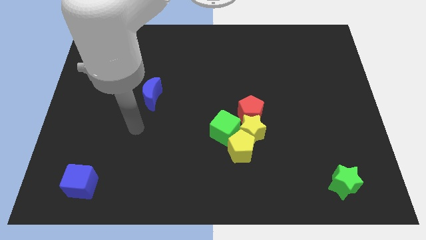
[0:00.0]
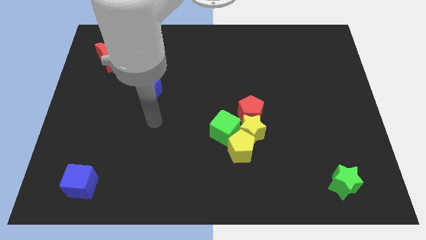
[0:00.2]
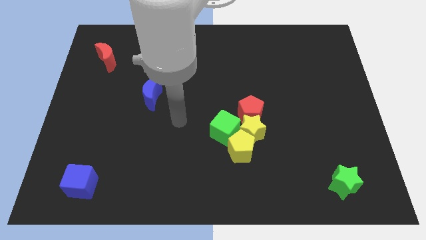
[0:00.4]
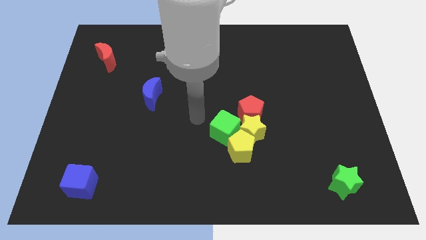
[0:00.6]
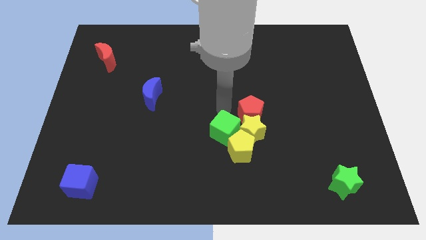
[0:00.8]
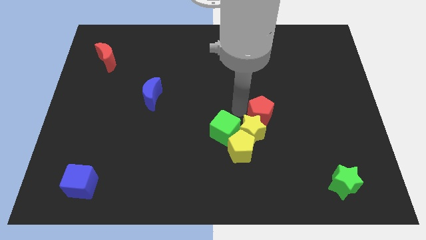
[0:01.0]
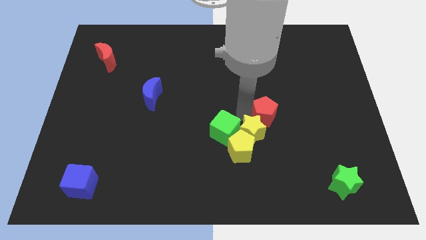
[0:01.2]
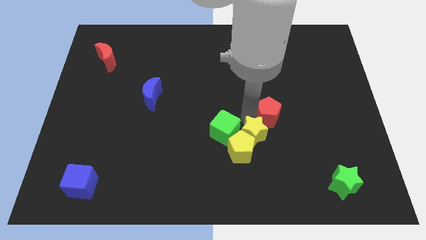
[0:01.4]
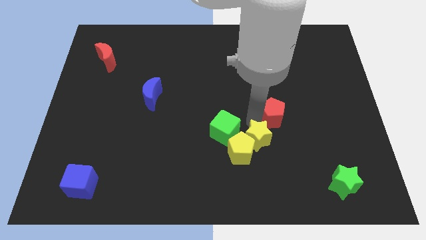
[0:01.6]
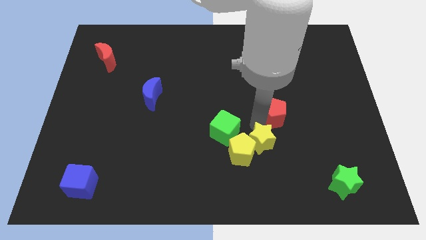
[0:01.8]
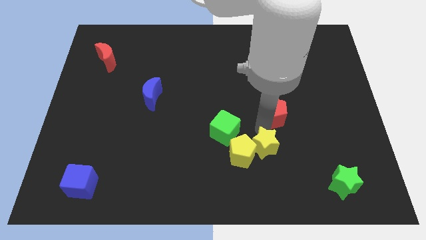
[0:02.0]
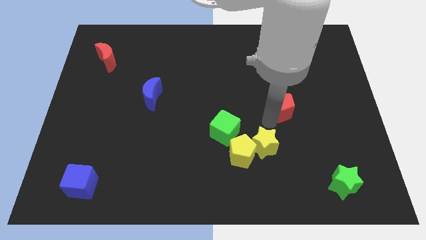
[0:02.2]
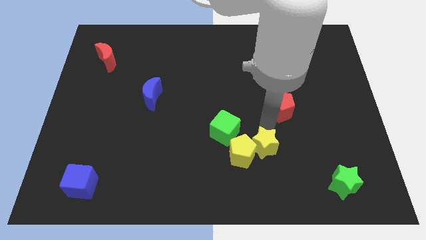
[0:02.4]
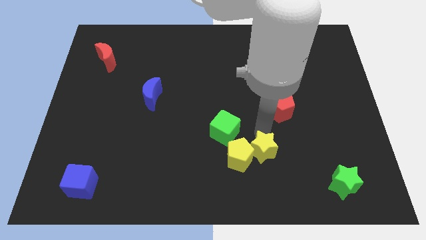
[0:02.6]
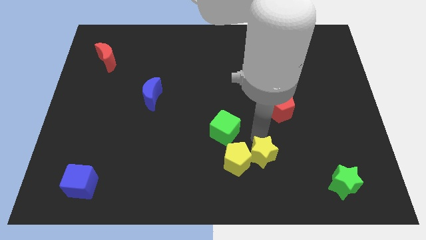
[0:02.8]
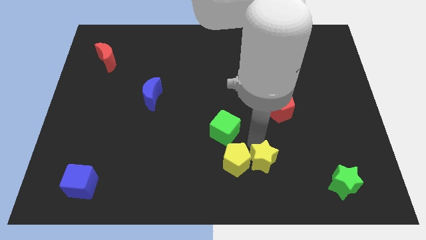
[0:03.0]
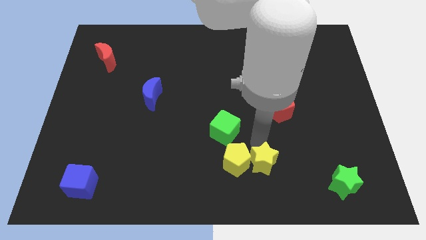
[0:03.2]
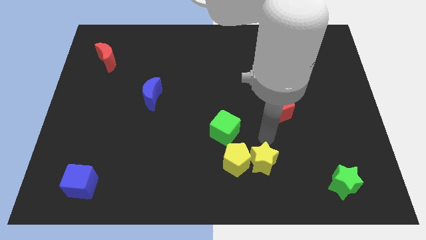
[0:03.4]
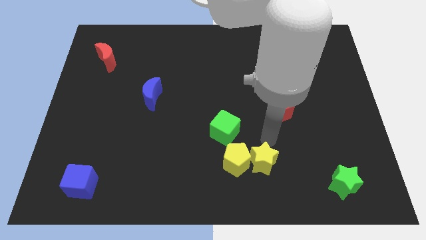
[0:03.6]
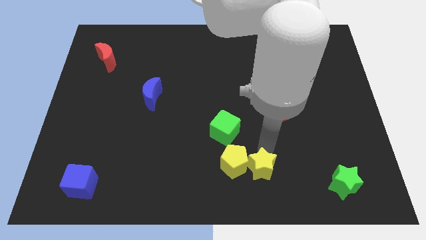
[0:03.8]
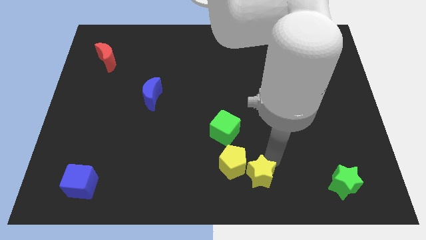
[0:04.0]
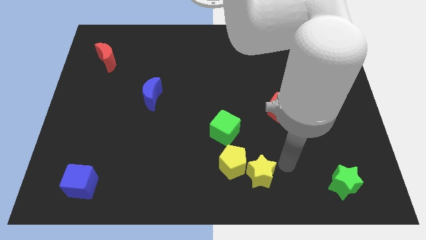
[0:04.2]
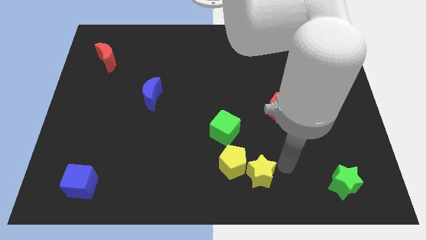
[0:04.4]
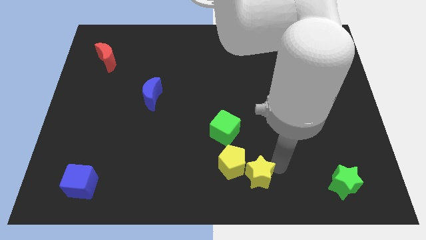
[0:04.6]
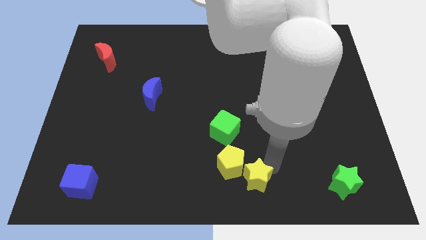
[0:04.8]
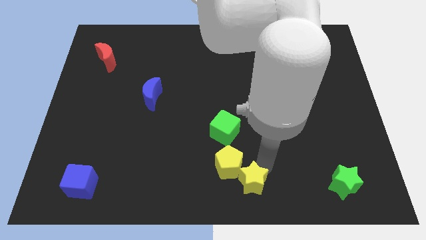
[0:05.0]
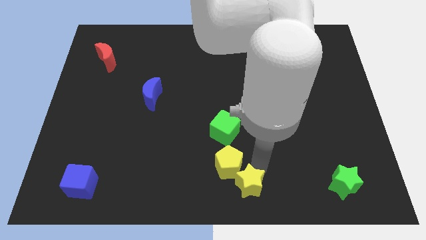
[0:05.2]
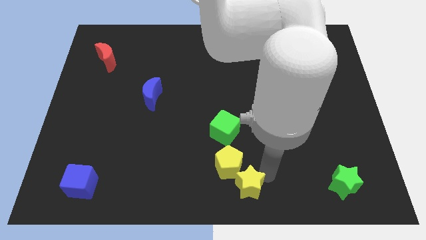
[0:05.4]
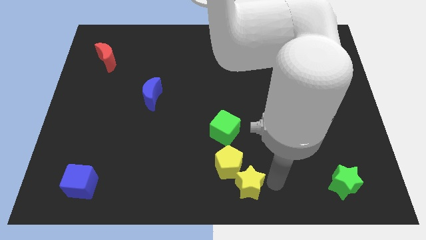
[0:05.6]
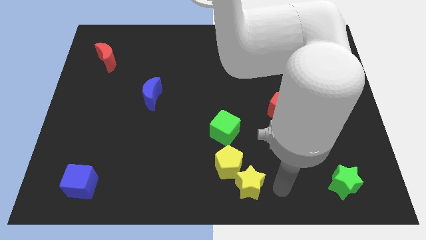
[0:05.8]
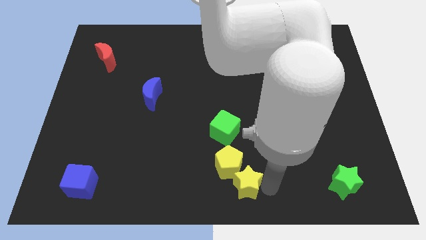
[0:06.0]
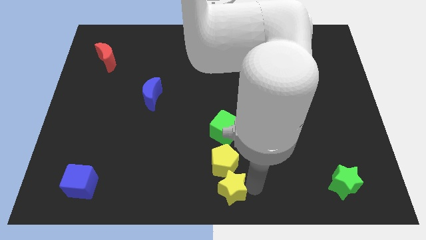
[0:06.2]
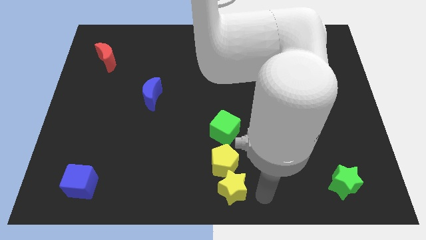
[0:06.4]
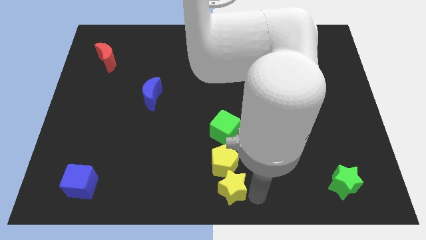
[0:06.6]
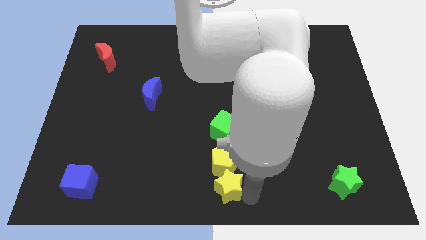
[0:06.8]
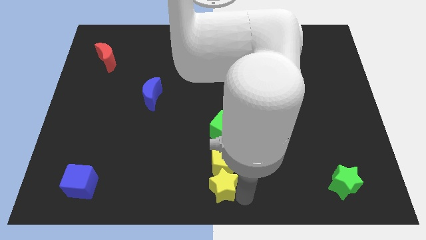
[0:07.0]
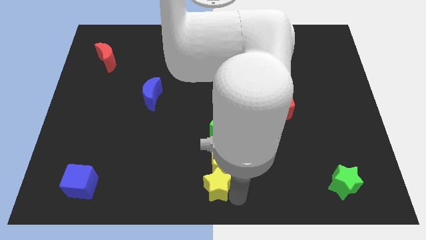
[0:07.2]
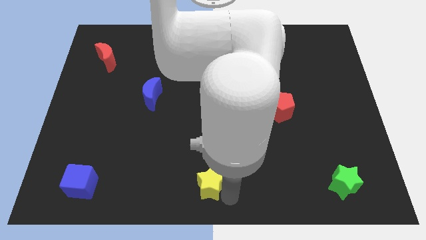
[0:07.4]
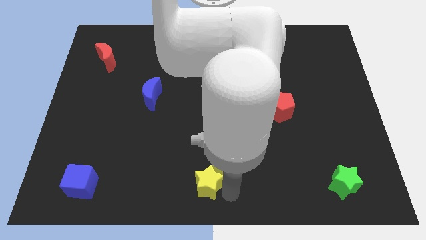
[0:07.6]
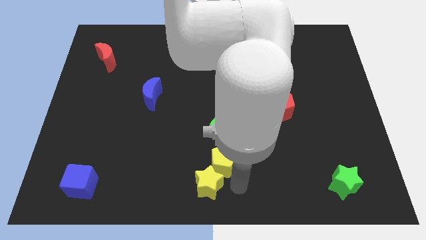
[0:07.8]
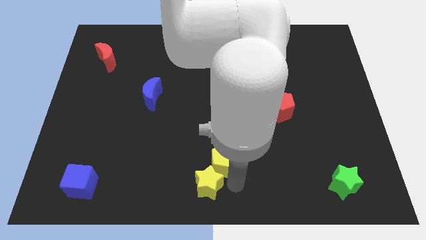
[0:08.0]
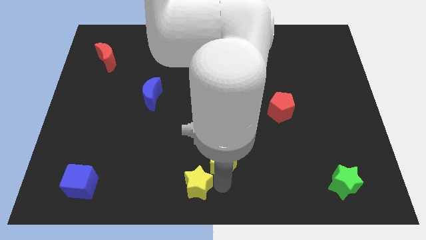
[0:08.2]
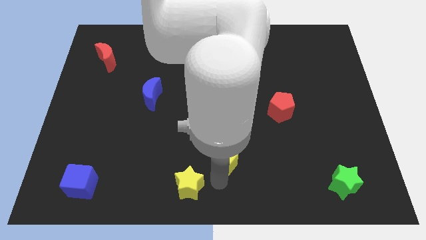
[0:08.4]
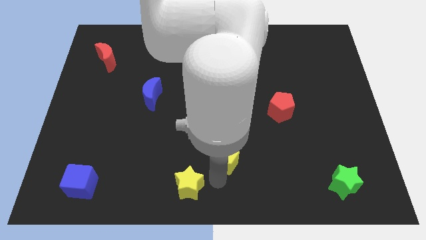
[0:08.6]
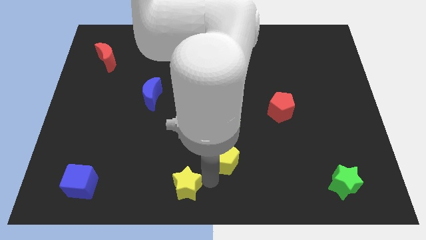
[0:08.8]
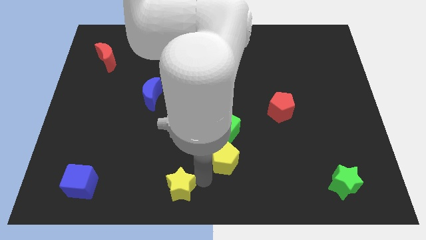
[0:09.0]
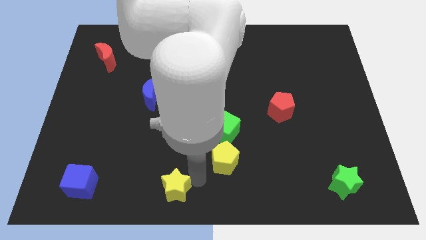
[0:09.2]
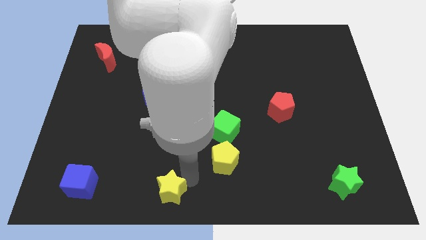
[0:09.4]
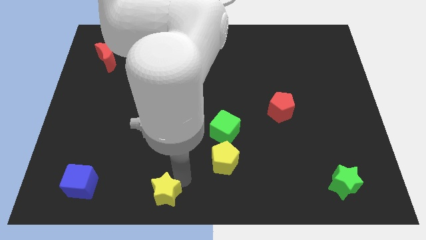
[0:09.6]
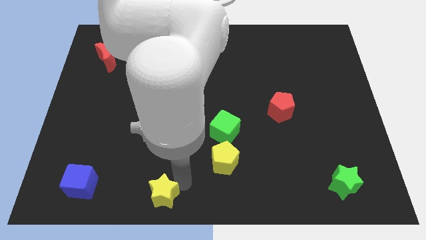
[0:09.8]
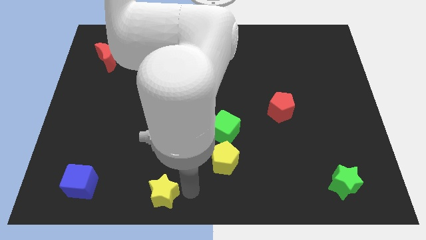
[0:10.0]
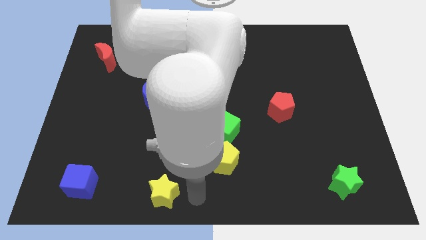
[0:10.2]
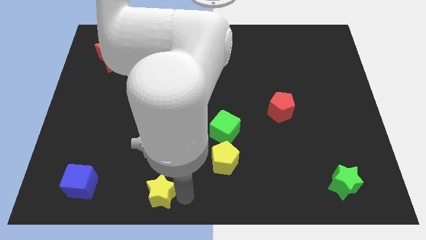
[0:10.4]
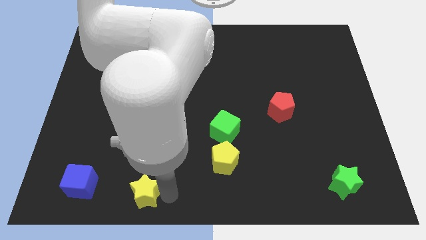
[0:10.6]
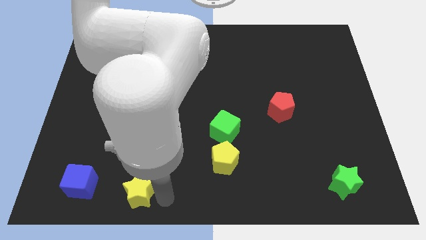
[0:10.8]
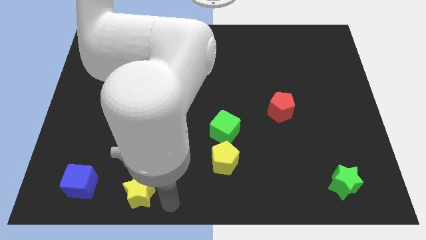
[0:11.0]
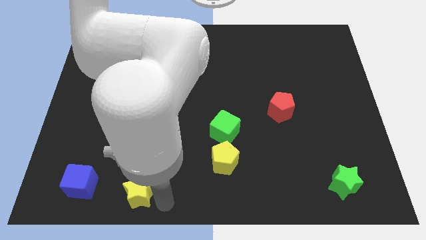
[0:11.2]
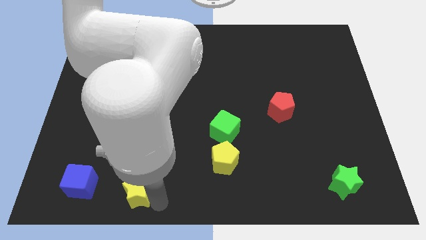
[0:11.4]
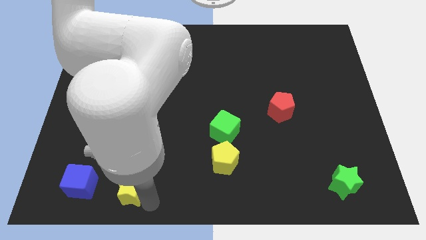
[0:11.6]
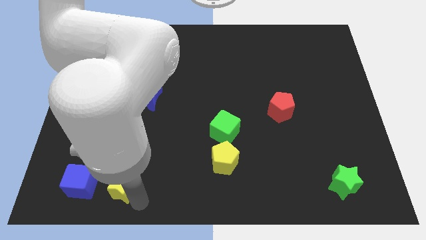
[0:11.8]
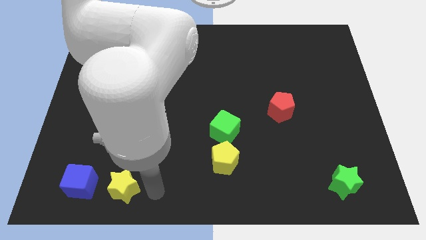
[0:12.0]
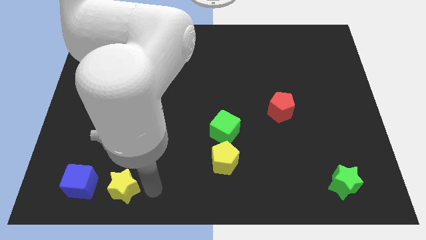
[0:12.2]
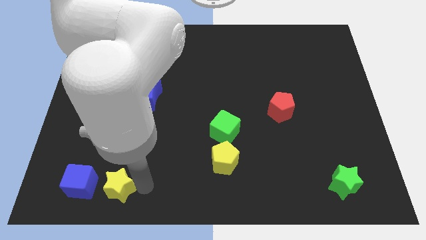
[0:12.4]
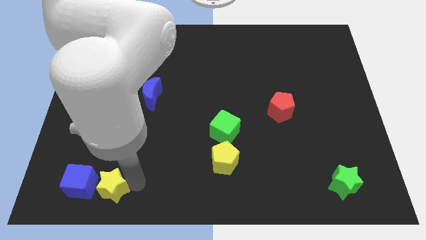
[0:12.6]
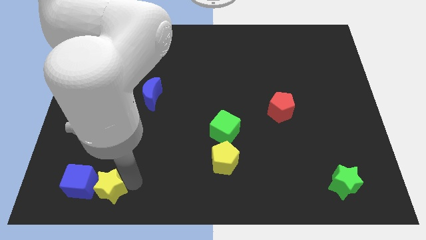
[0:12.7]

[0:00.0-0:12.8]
move the yellow star close to the blue cube

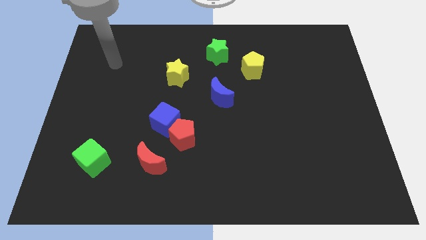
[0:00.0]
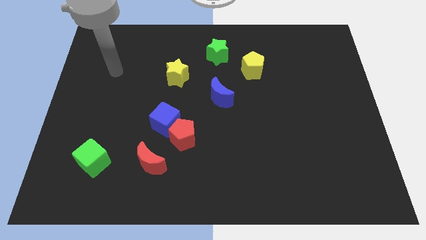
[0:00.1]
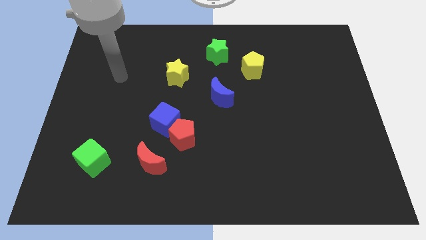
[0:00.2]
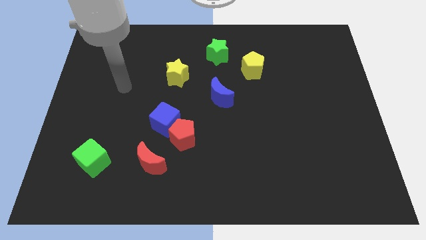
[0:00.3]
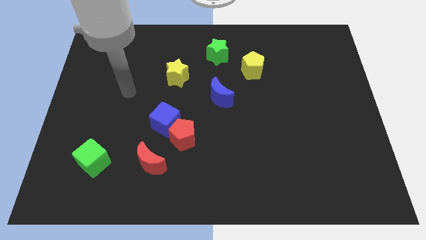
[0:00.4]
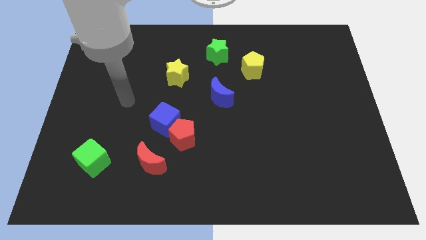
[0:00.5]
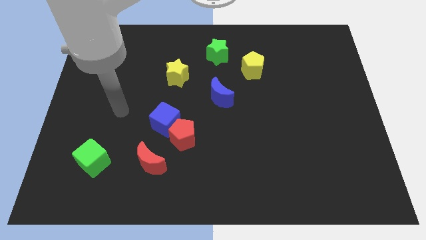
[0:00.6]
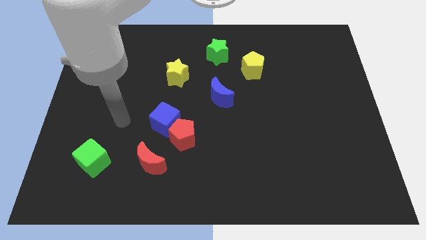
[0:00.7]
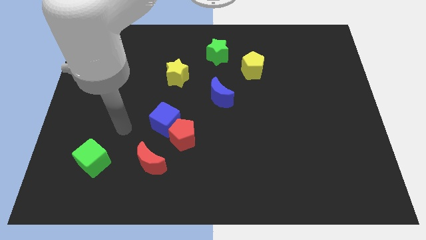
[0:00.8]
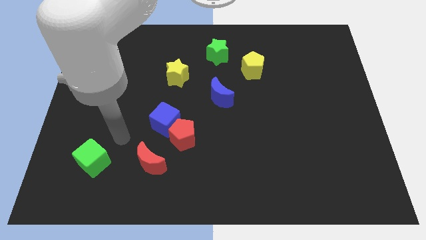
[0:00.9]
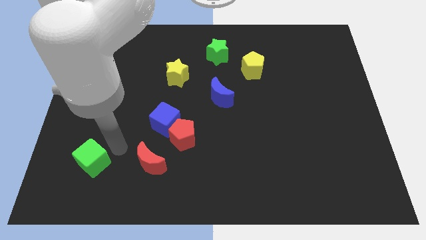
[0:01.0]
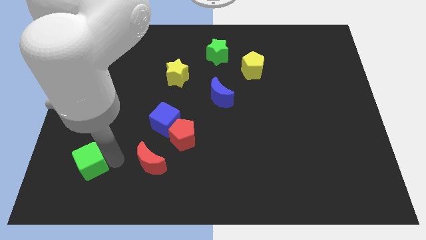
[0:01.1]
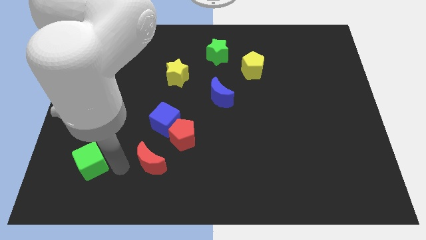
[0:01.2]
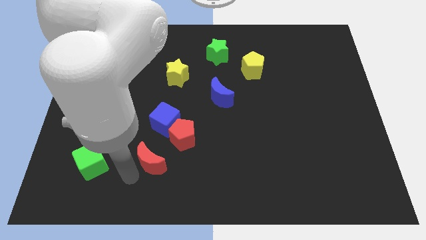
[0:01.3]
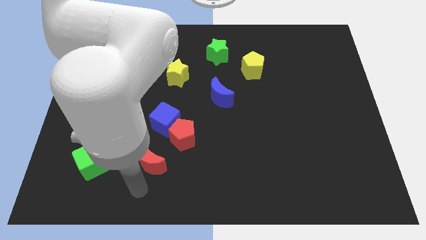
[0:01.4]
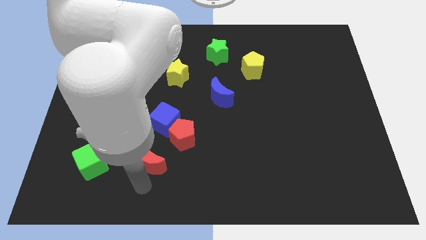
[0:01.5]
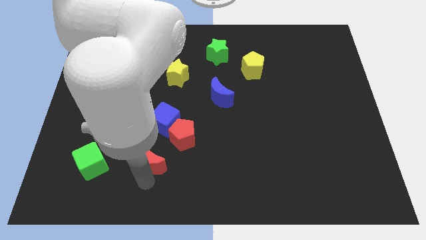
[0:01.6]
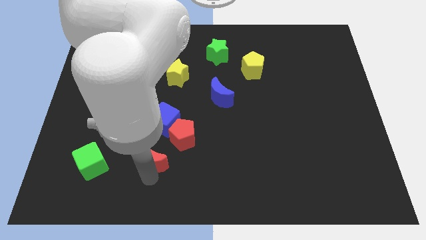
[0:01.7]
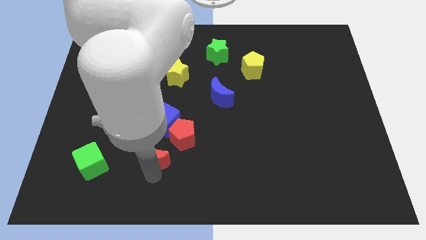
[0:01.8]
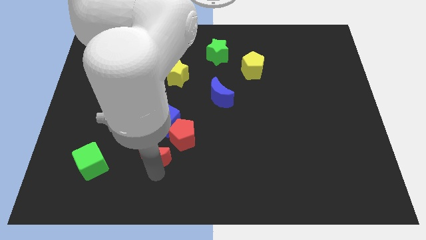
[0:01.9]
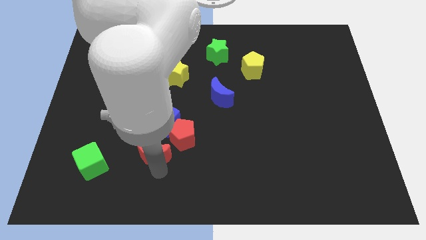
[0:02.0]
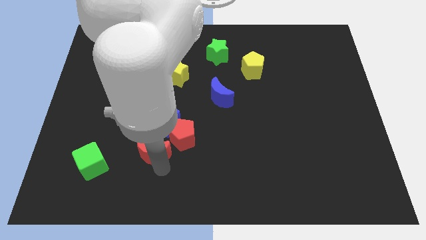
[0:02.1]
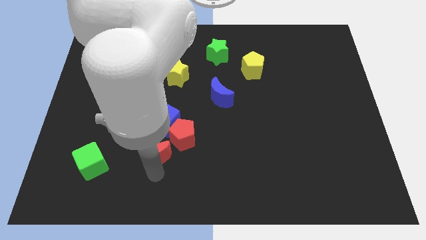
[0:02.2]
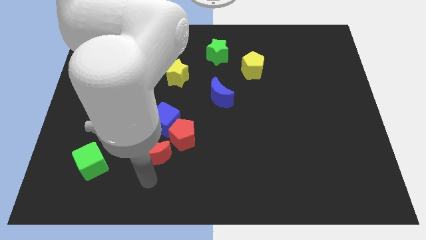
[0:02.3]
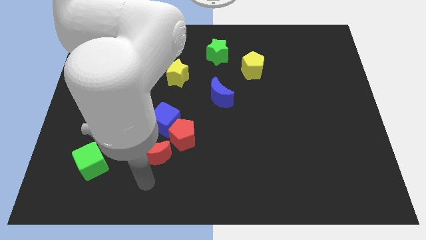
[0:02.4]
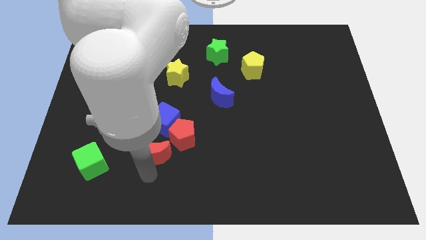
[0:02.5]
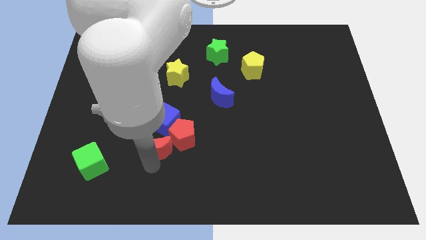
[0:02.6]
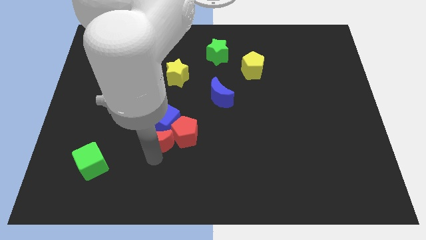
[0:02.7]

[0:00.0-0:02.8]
push the red moon towards the blue cube
